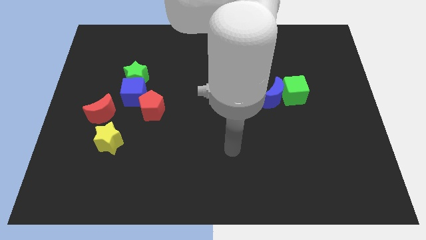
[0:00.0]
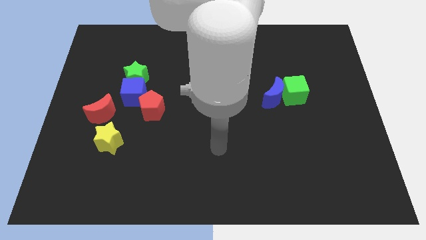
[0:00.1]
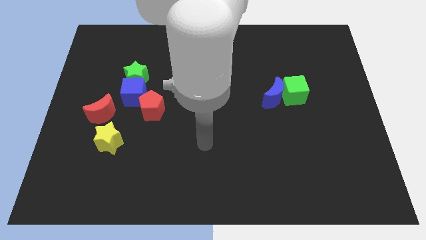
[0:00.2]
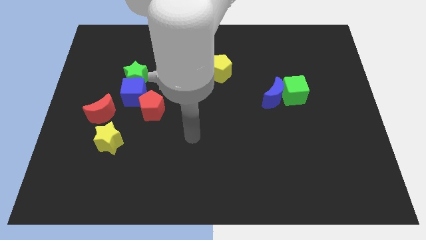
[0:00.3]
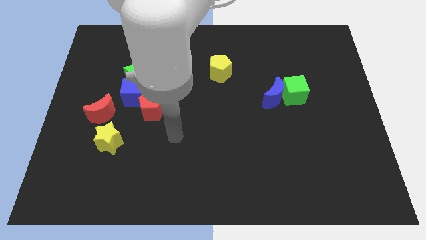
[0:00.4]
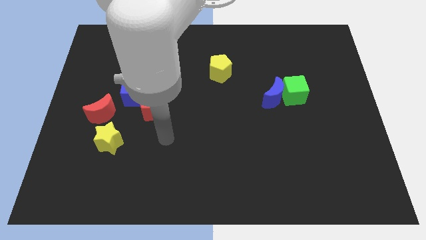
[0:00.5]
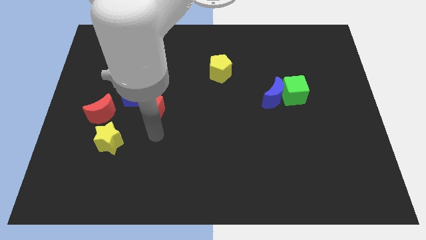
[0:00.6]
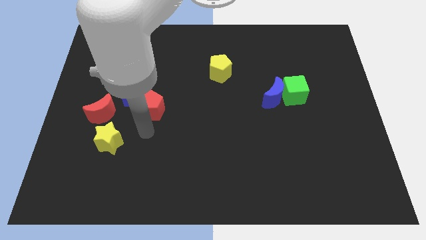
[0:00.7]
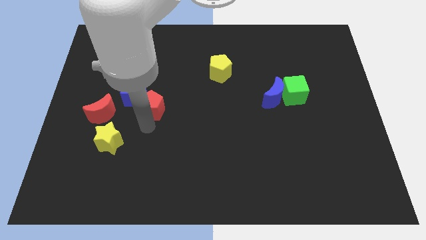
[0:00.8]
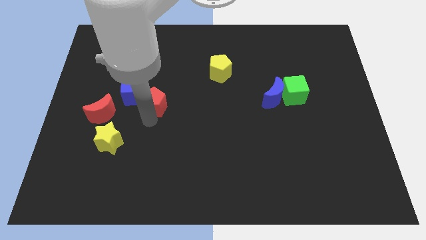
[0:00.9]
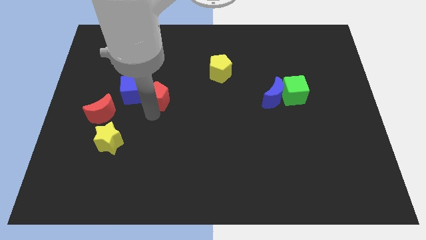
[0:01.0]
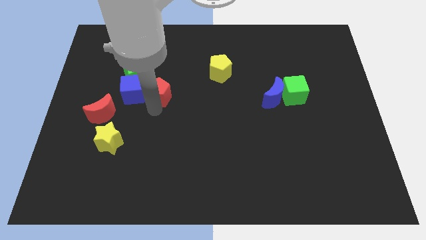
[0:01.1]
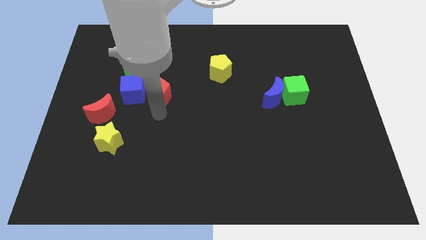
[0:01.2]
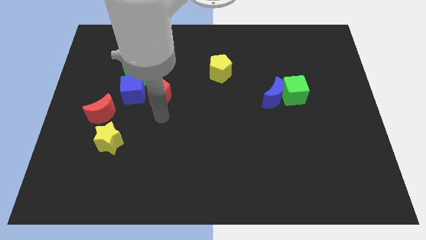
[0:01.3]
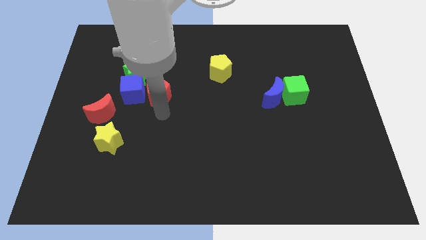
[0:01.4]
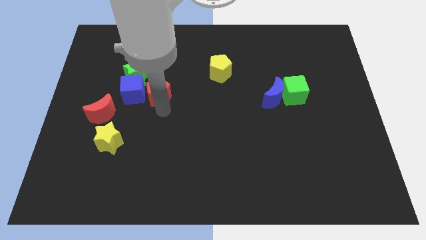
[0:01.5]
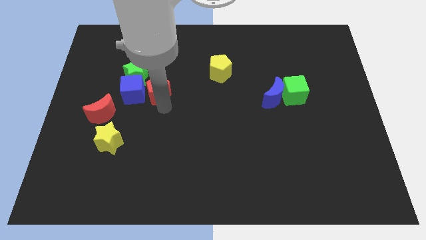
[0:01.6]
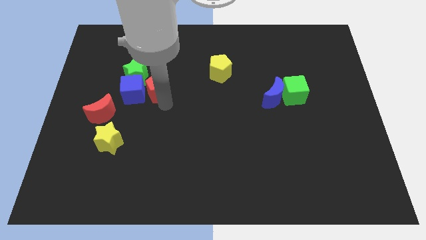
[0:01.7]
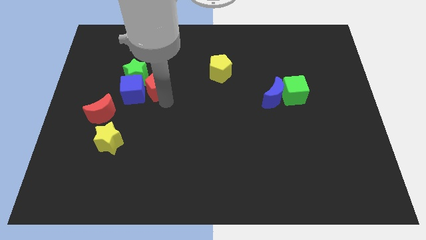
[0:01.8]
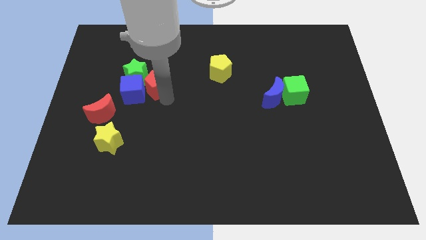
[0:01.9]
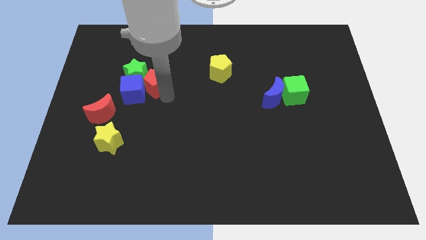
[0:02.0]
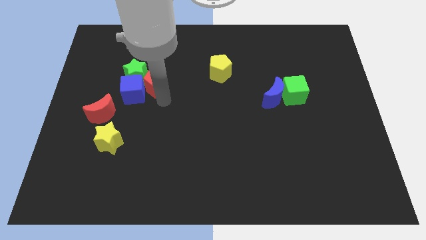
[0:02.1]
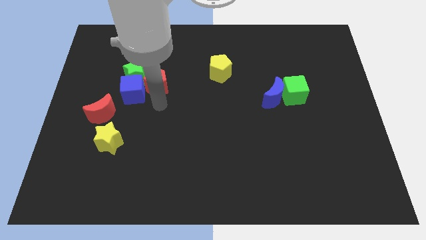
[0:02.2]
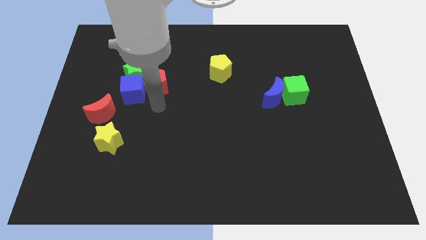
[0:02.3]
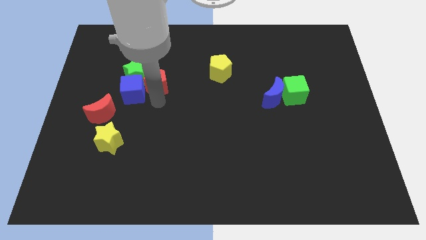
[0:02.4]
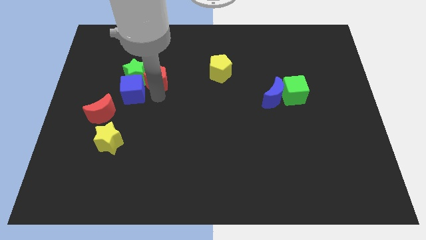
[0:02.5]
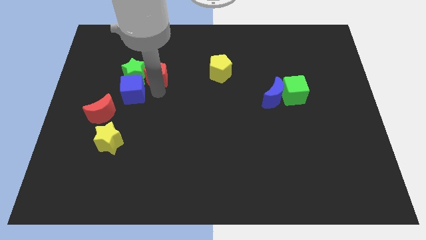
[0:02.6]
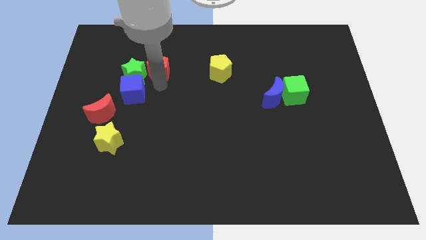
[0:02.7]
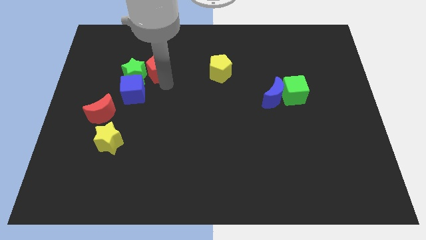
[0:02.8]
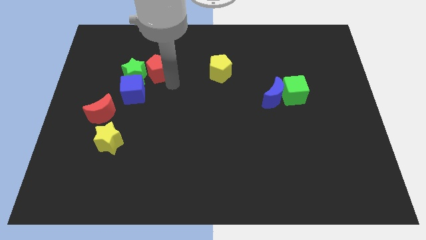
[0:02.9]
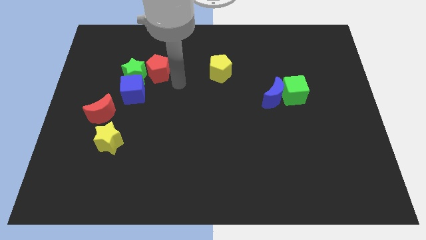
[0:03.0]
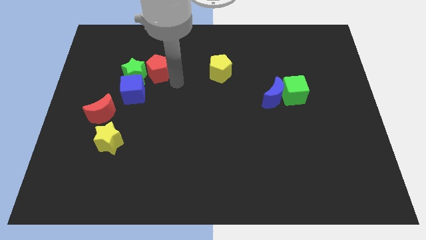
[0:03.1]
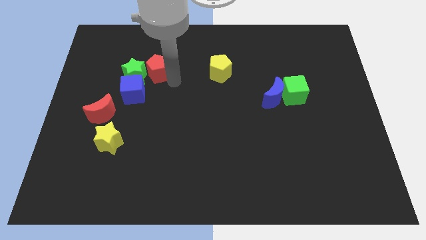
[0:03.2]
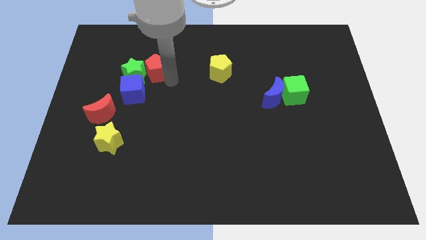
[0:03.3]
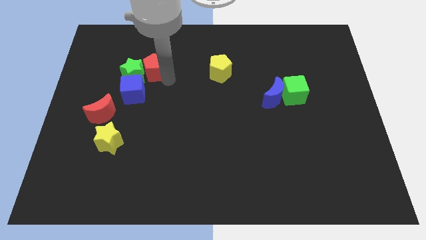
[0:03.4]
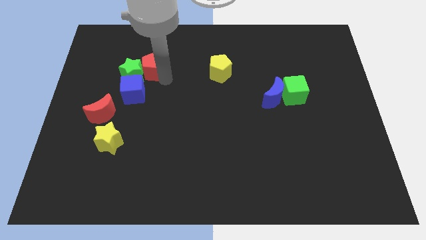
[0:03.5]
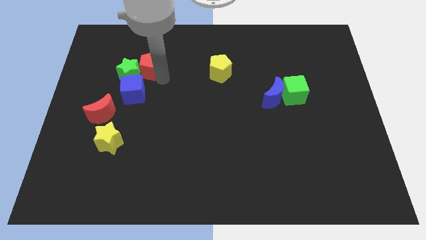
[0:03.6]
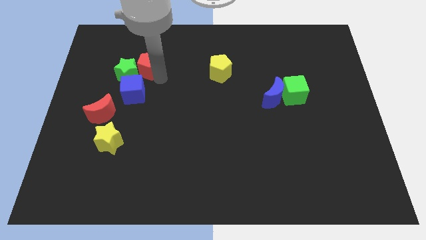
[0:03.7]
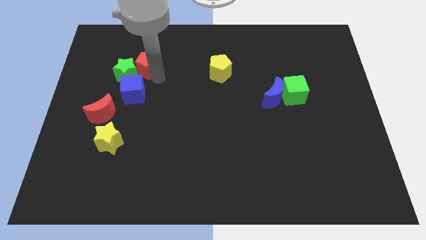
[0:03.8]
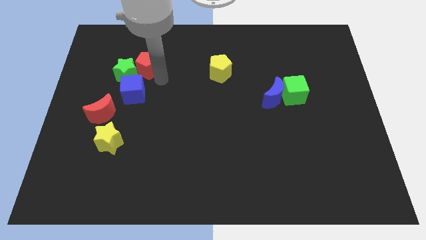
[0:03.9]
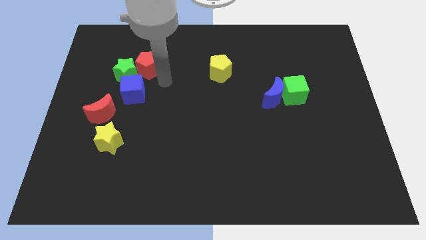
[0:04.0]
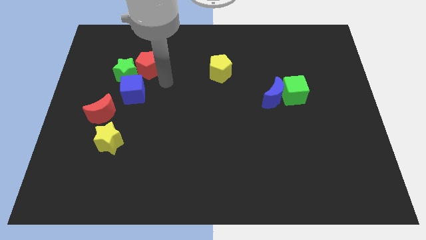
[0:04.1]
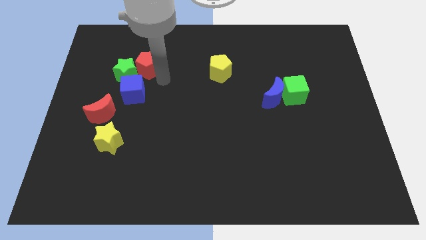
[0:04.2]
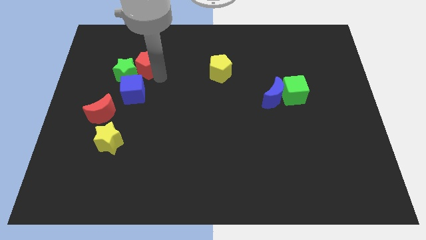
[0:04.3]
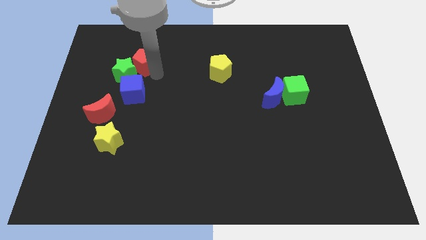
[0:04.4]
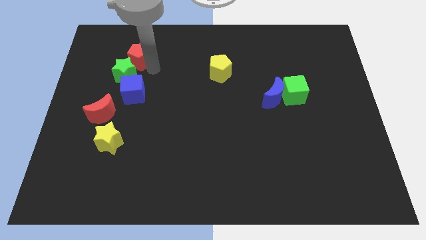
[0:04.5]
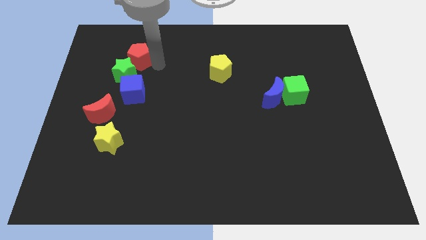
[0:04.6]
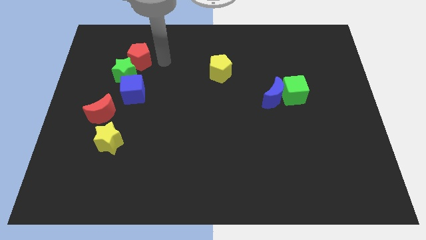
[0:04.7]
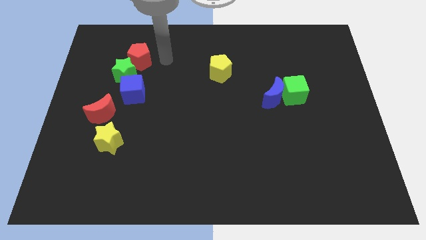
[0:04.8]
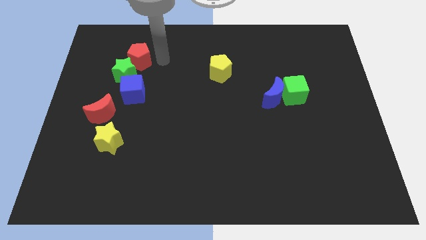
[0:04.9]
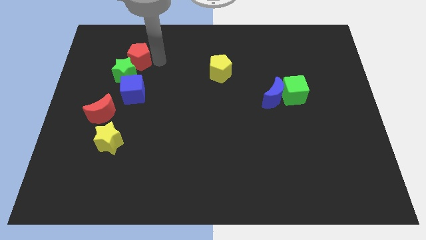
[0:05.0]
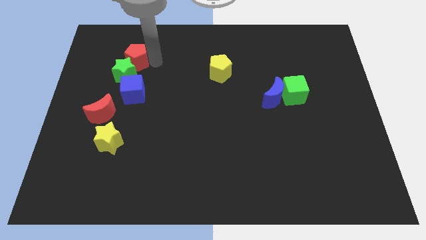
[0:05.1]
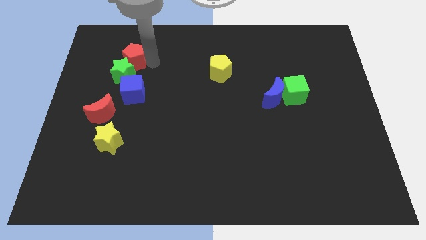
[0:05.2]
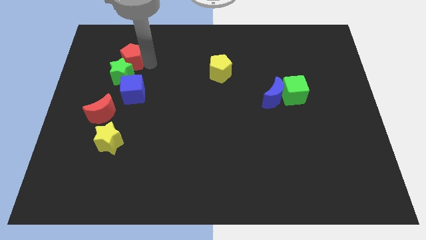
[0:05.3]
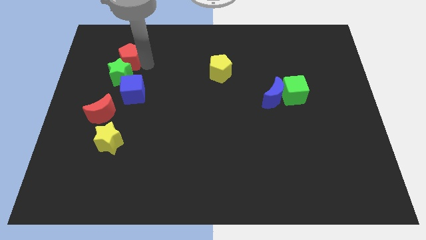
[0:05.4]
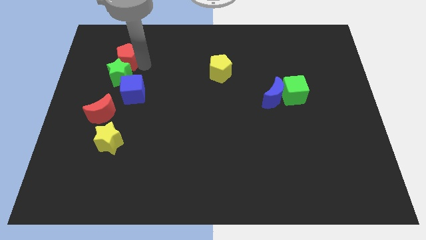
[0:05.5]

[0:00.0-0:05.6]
slide the red pentagon to the top left of the green star
